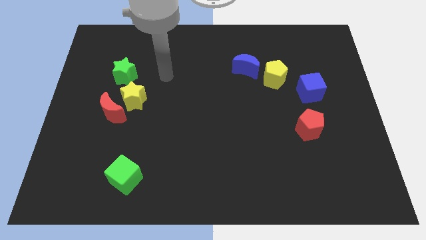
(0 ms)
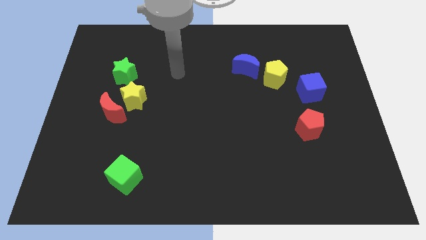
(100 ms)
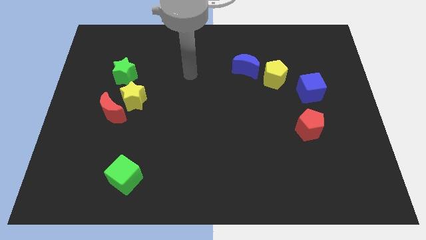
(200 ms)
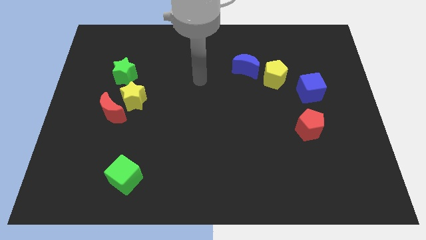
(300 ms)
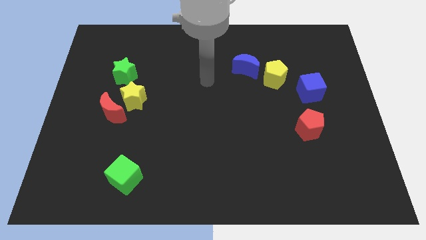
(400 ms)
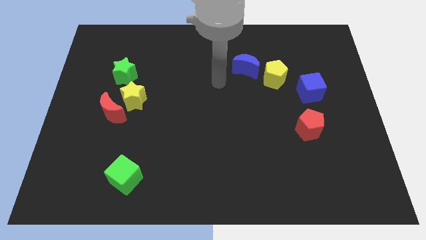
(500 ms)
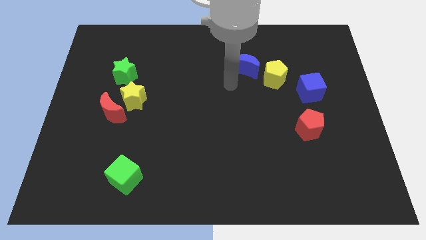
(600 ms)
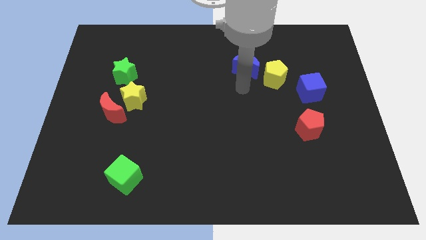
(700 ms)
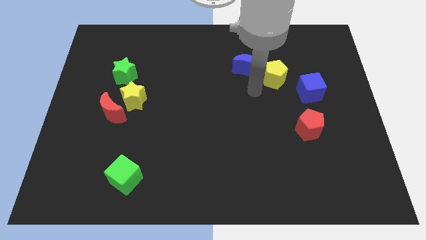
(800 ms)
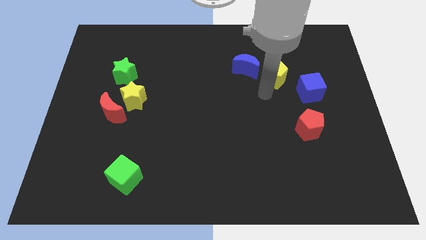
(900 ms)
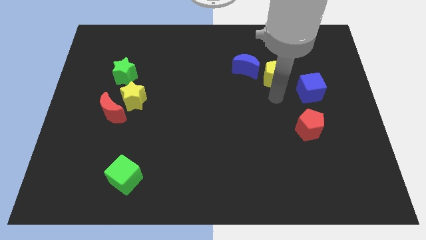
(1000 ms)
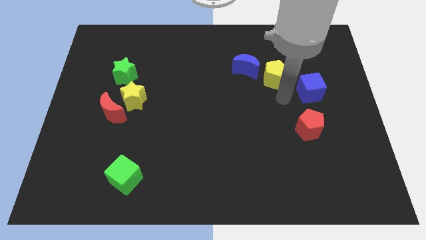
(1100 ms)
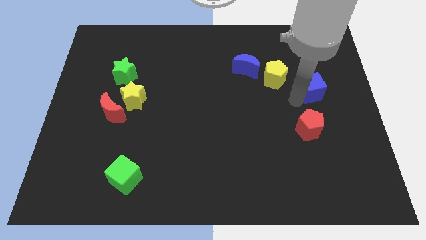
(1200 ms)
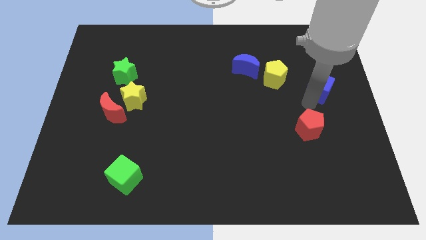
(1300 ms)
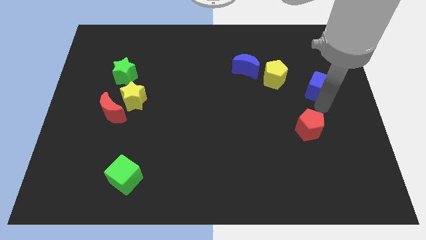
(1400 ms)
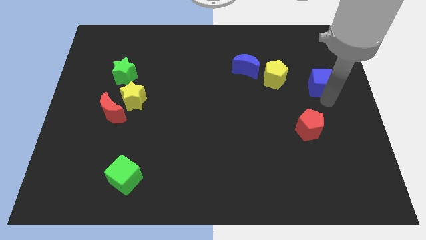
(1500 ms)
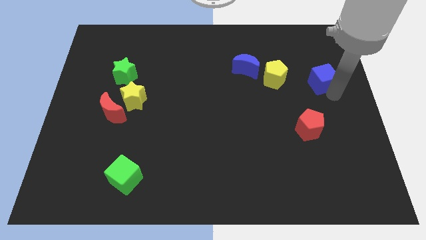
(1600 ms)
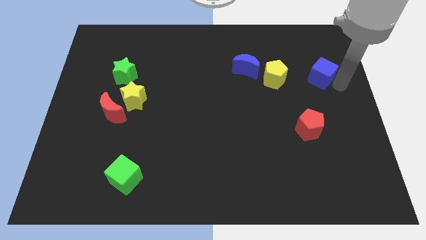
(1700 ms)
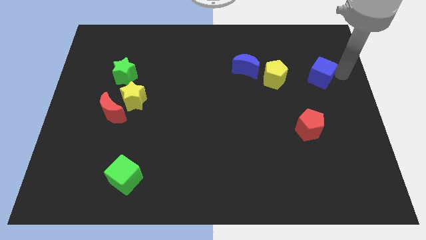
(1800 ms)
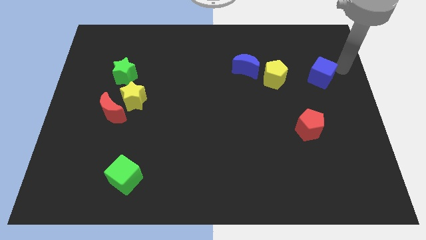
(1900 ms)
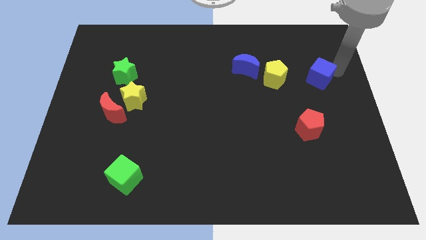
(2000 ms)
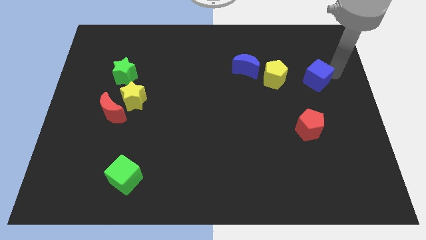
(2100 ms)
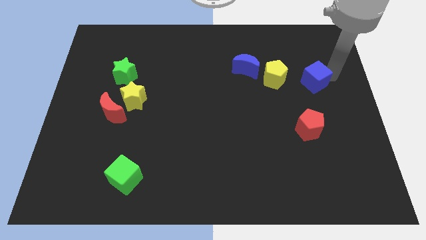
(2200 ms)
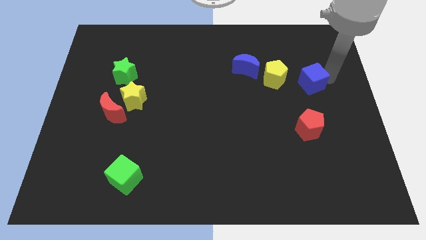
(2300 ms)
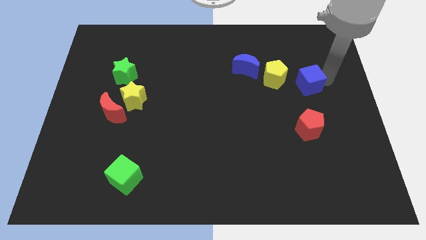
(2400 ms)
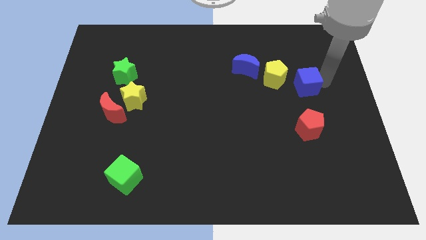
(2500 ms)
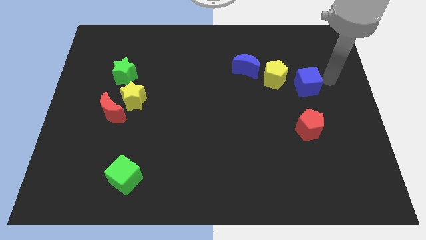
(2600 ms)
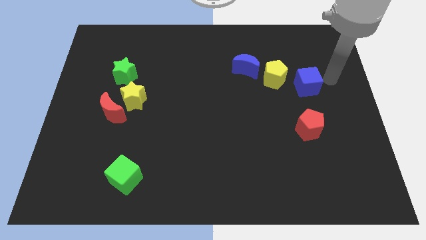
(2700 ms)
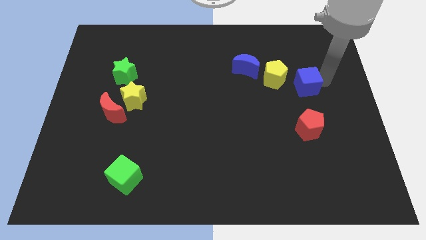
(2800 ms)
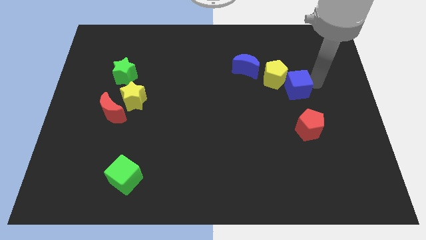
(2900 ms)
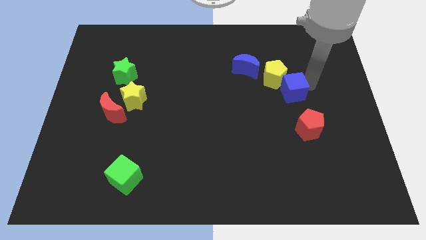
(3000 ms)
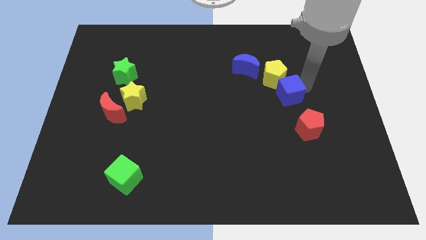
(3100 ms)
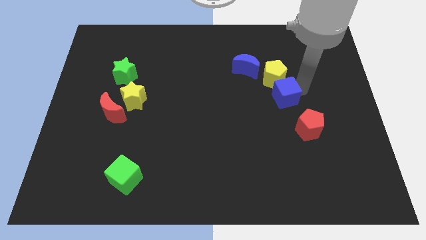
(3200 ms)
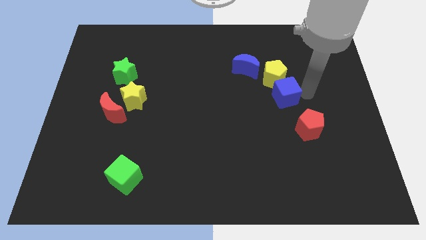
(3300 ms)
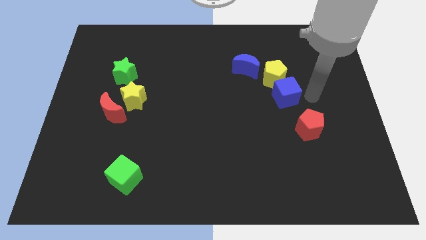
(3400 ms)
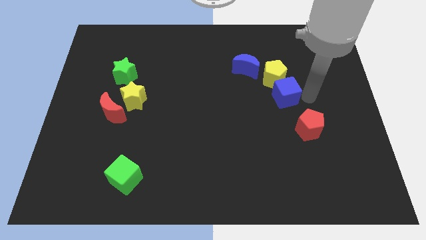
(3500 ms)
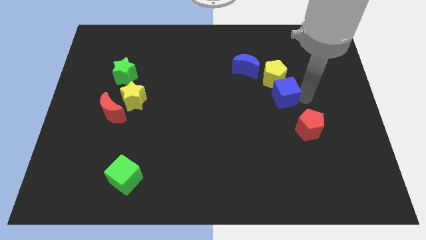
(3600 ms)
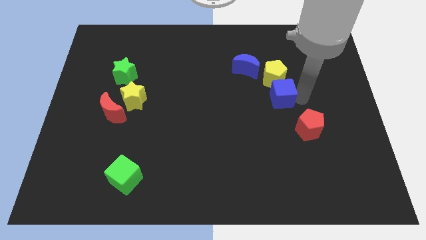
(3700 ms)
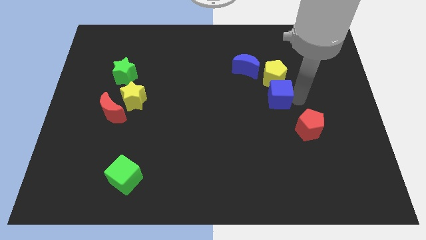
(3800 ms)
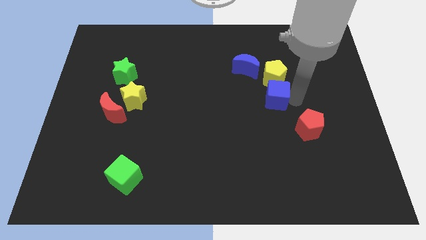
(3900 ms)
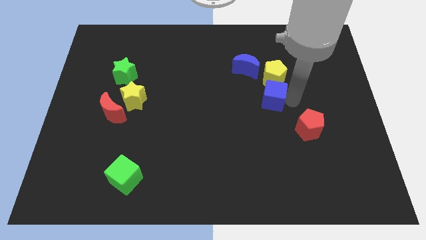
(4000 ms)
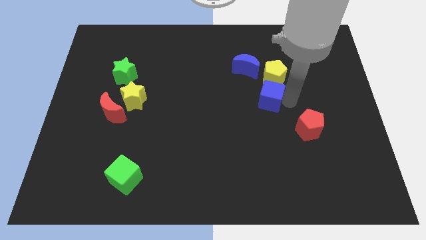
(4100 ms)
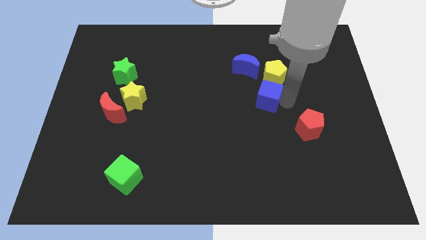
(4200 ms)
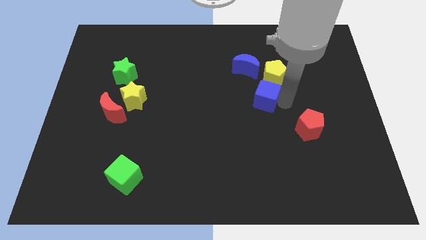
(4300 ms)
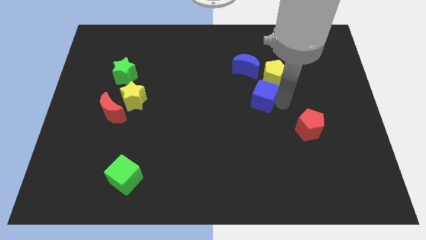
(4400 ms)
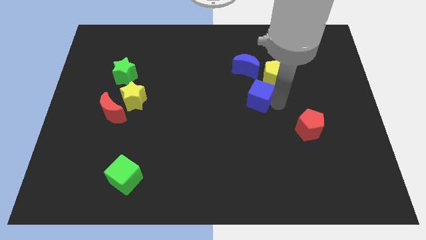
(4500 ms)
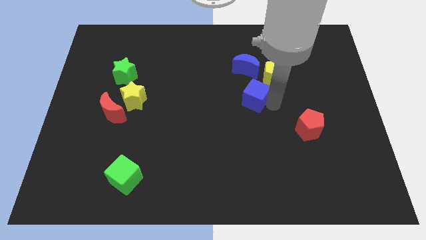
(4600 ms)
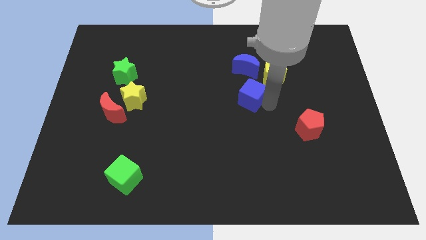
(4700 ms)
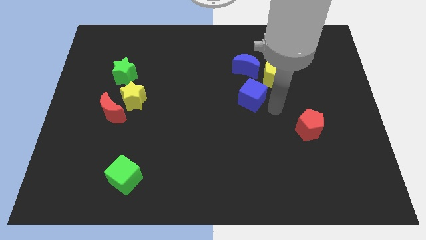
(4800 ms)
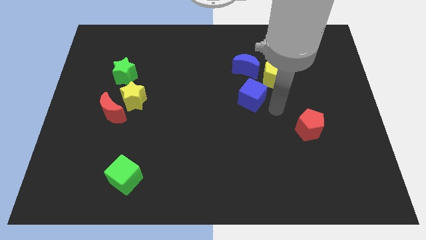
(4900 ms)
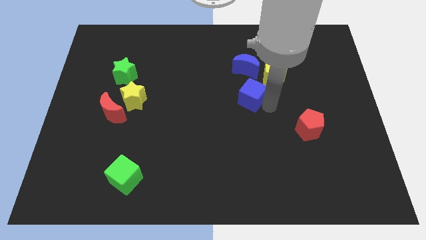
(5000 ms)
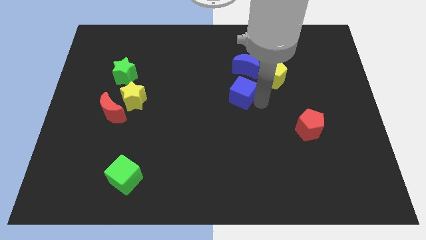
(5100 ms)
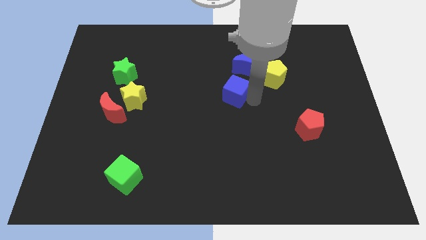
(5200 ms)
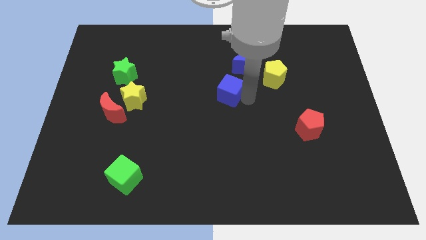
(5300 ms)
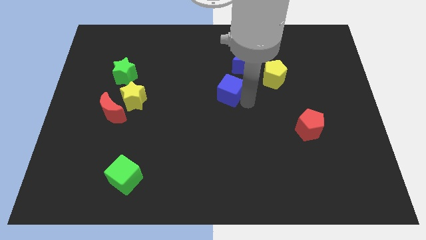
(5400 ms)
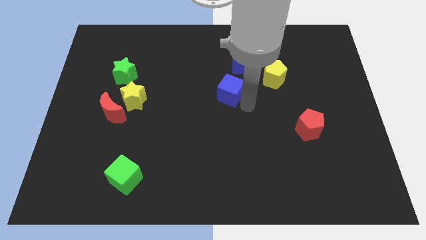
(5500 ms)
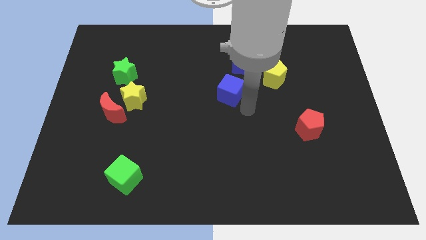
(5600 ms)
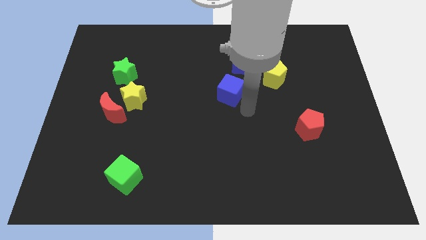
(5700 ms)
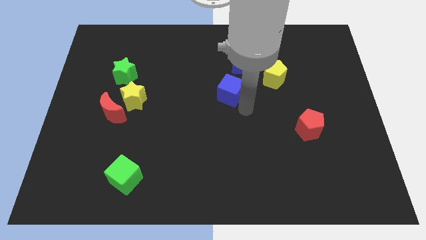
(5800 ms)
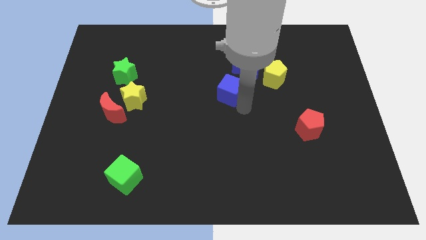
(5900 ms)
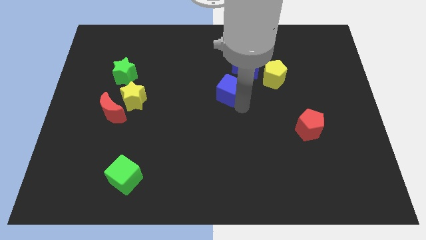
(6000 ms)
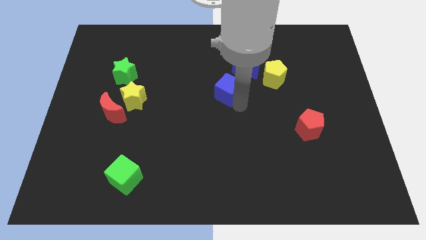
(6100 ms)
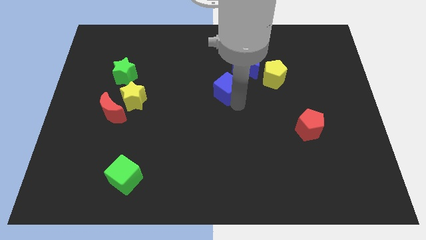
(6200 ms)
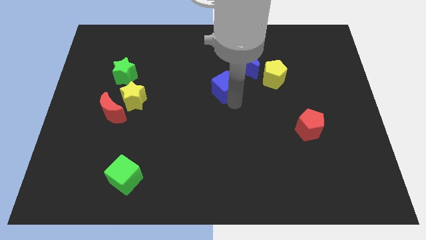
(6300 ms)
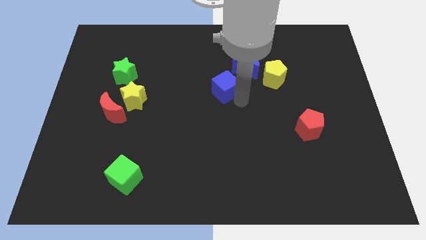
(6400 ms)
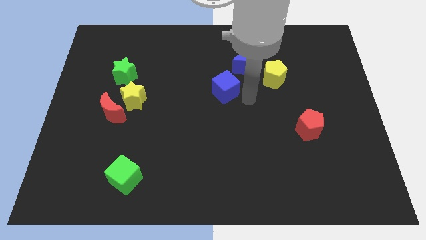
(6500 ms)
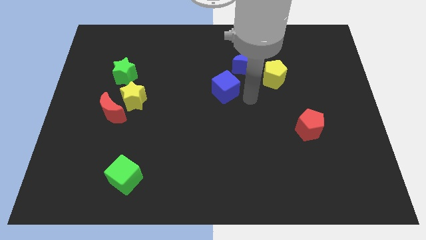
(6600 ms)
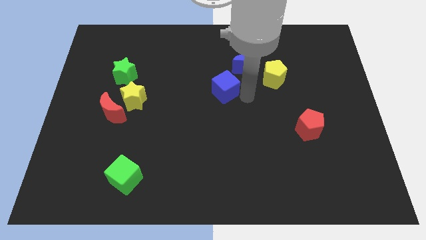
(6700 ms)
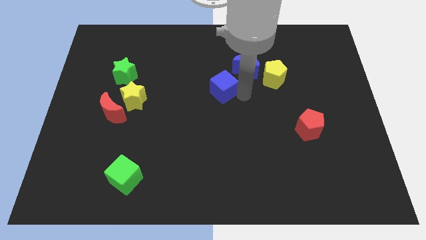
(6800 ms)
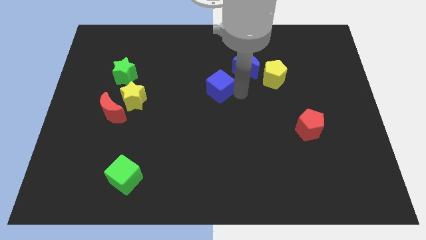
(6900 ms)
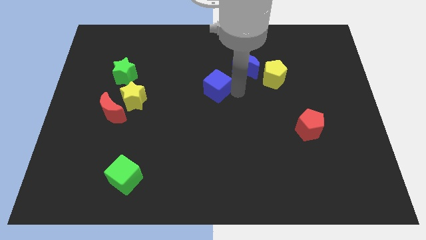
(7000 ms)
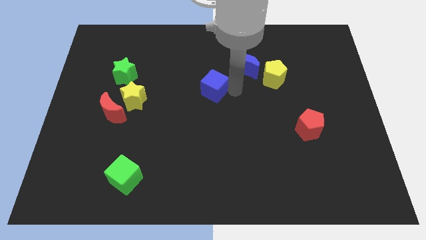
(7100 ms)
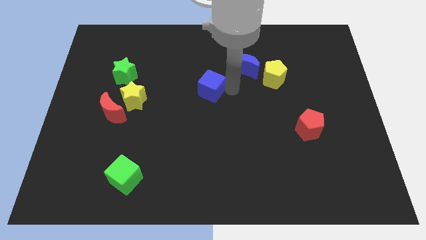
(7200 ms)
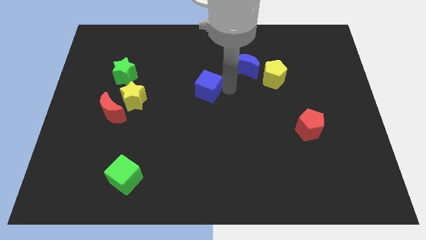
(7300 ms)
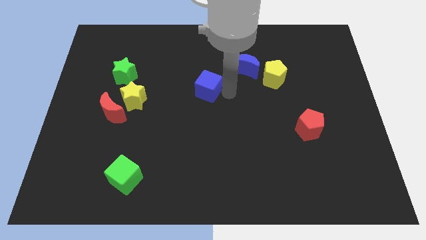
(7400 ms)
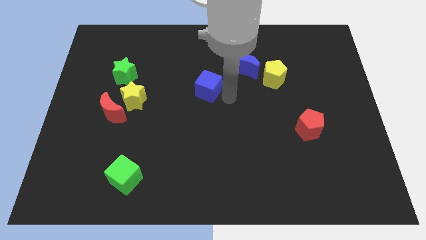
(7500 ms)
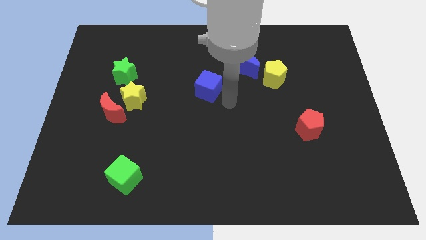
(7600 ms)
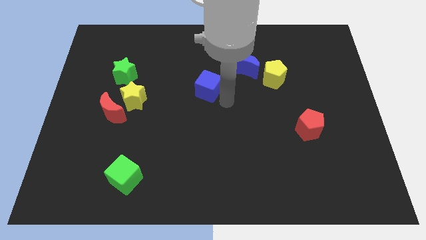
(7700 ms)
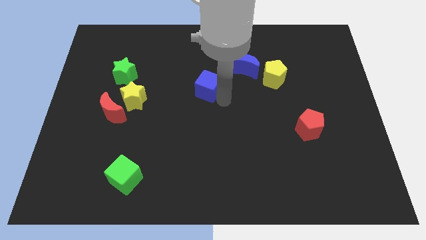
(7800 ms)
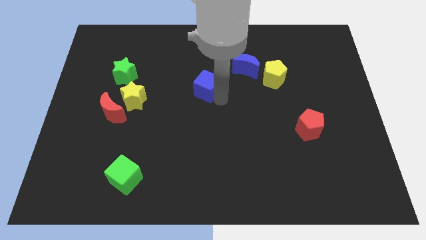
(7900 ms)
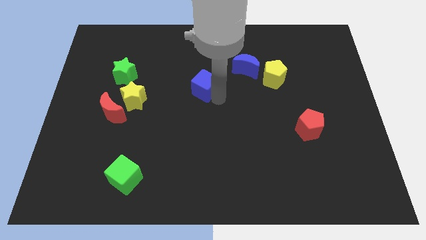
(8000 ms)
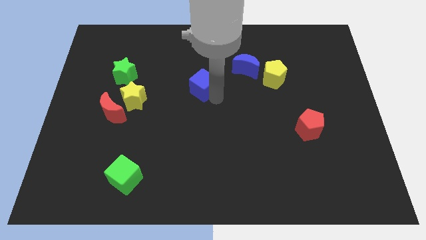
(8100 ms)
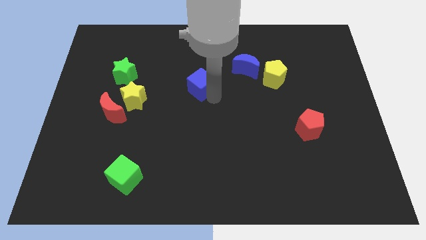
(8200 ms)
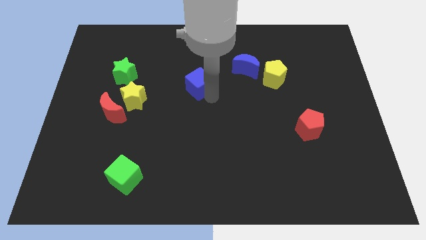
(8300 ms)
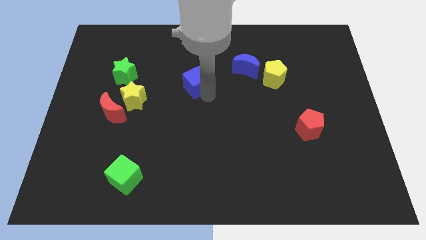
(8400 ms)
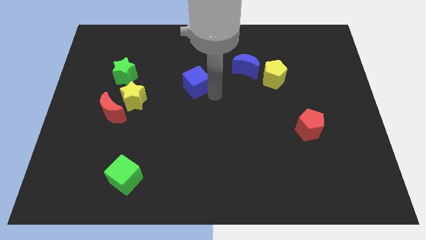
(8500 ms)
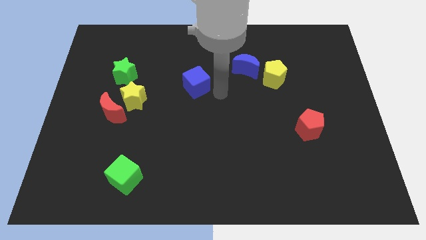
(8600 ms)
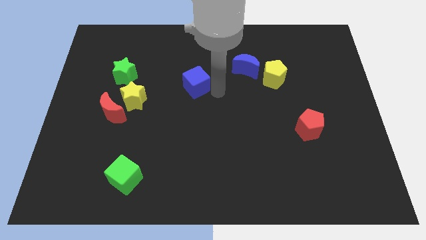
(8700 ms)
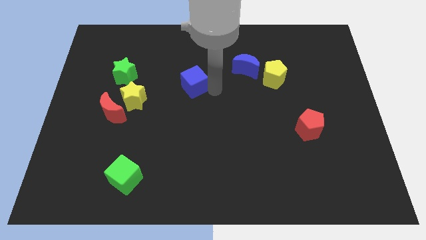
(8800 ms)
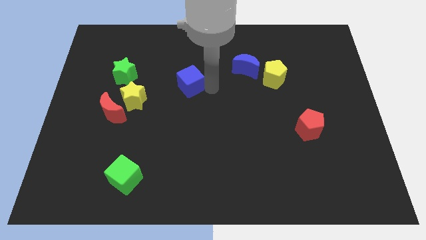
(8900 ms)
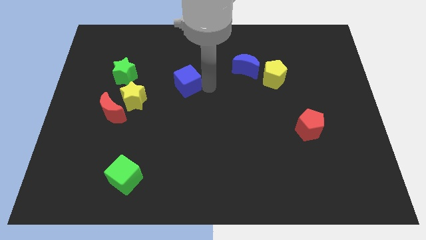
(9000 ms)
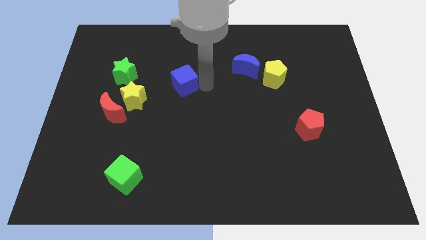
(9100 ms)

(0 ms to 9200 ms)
push the blue cube right of the green star
